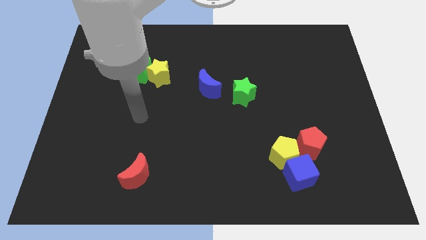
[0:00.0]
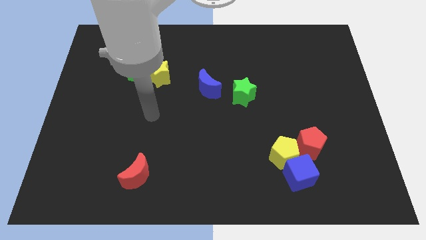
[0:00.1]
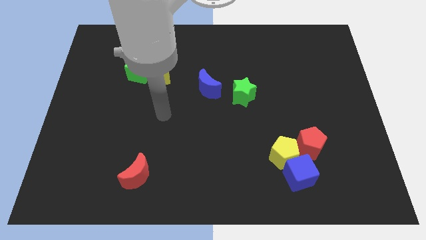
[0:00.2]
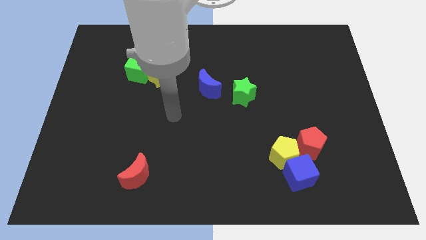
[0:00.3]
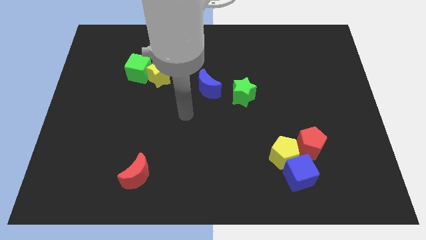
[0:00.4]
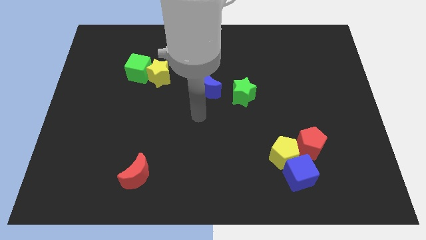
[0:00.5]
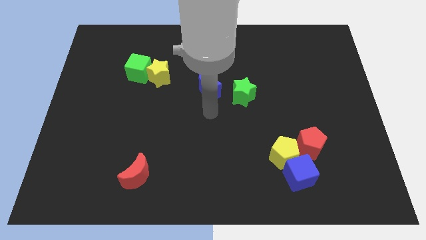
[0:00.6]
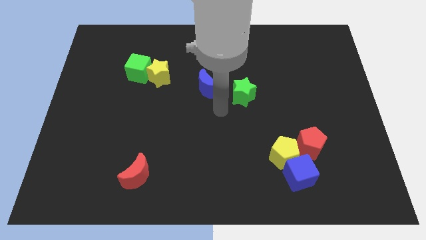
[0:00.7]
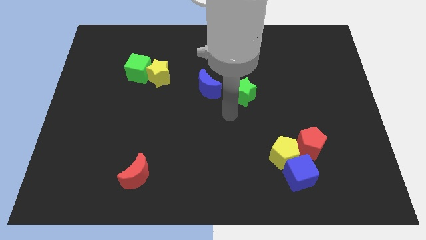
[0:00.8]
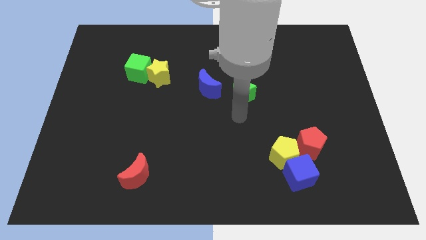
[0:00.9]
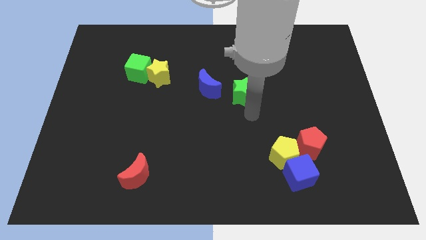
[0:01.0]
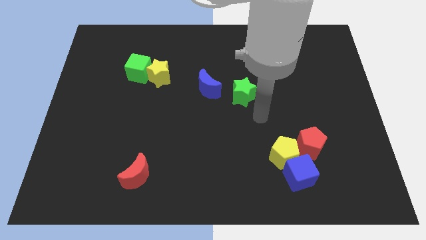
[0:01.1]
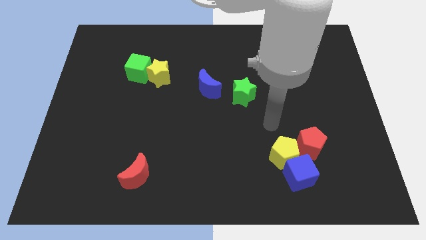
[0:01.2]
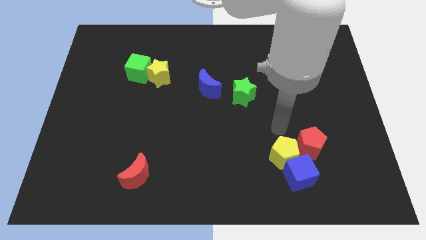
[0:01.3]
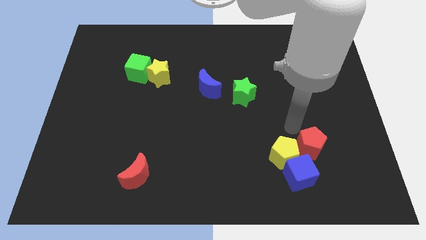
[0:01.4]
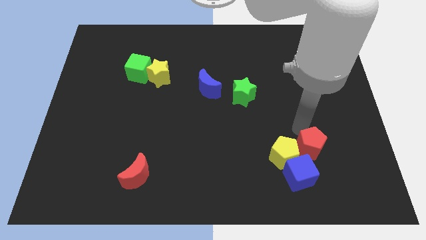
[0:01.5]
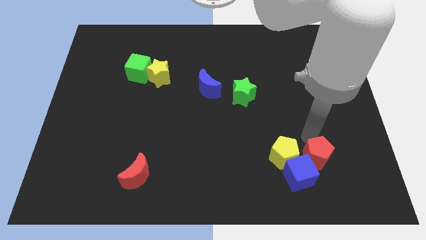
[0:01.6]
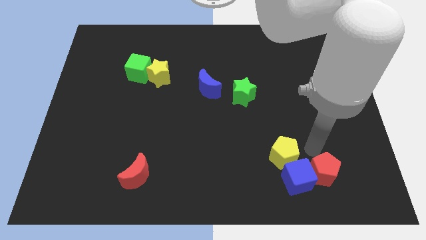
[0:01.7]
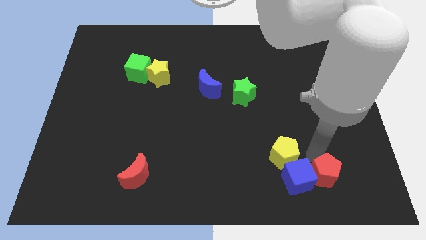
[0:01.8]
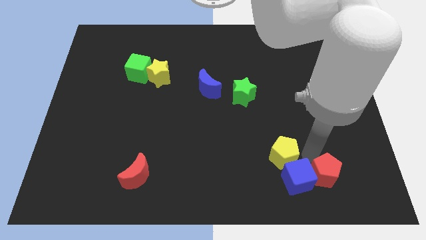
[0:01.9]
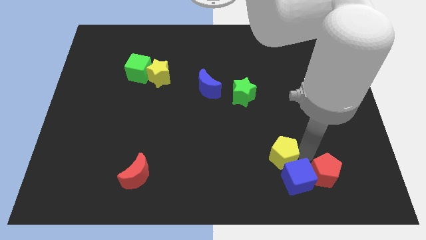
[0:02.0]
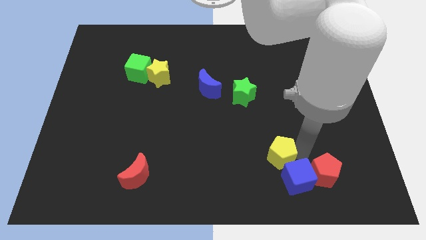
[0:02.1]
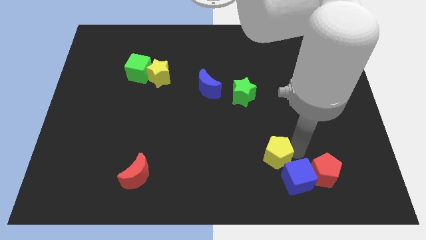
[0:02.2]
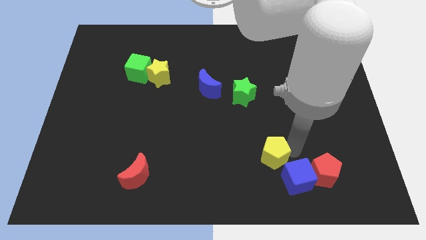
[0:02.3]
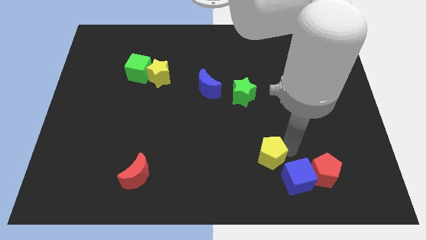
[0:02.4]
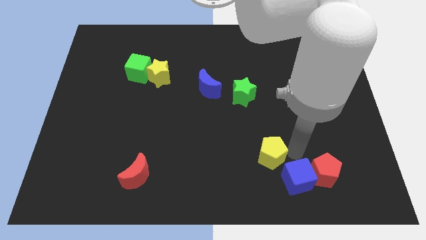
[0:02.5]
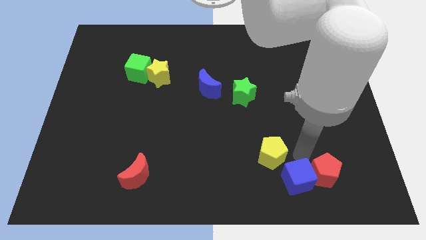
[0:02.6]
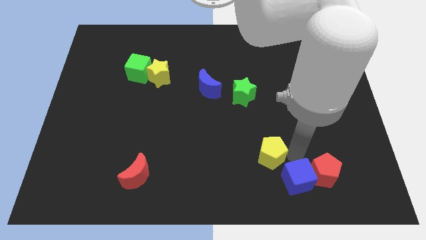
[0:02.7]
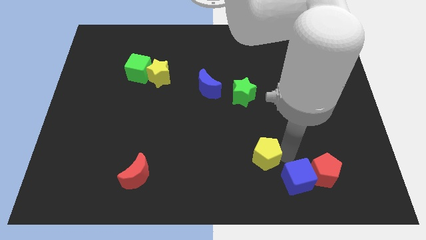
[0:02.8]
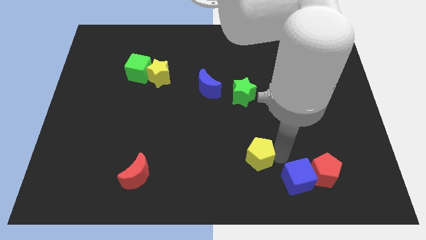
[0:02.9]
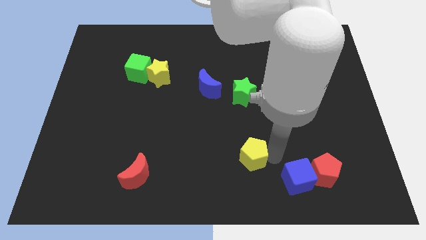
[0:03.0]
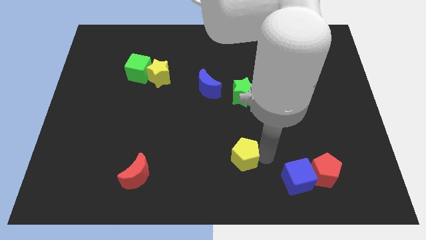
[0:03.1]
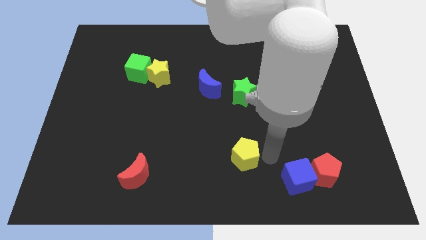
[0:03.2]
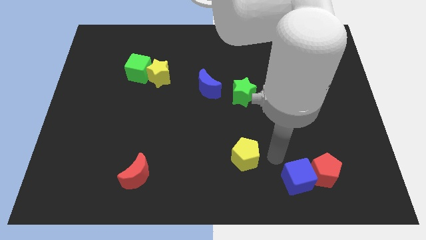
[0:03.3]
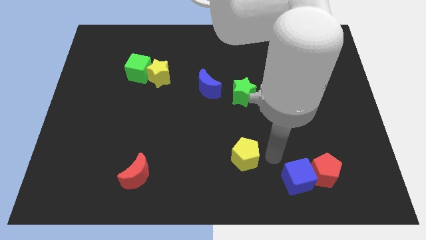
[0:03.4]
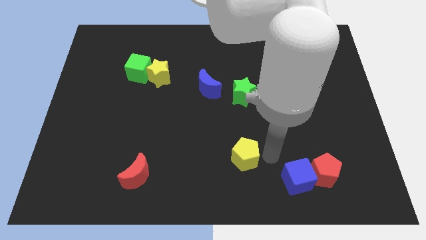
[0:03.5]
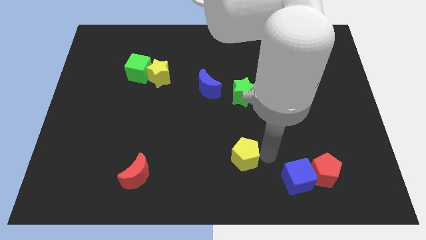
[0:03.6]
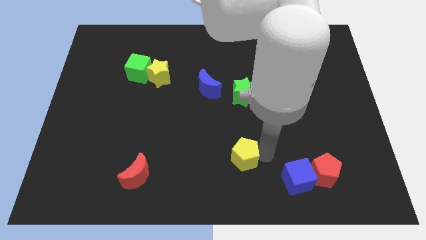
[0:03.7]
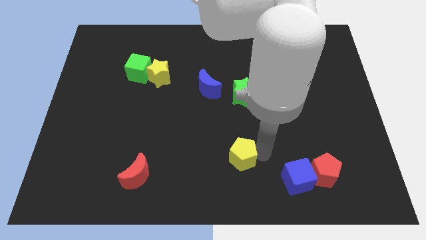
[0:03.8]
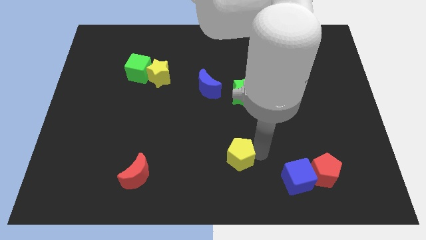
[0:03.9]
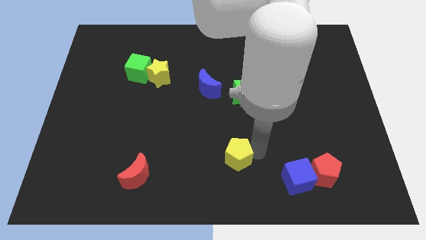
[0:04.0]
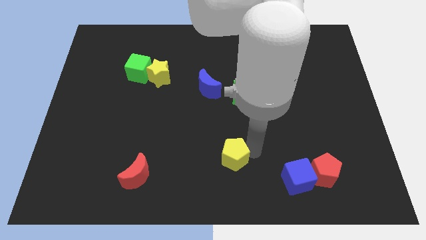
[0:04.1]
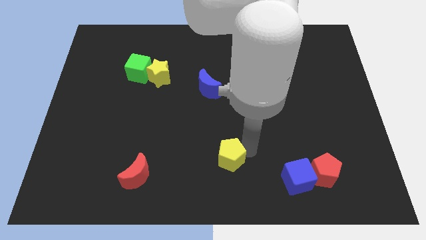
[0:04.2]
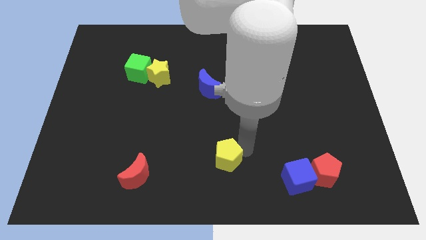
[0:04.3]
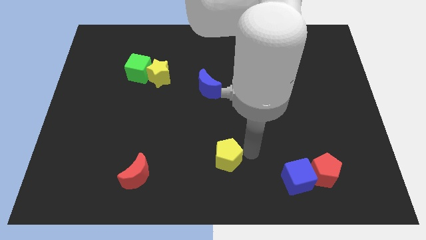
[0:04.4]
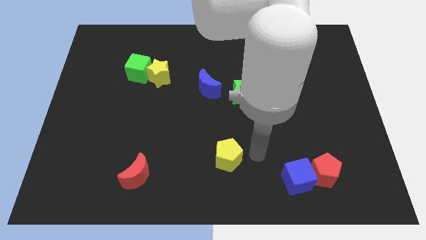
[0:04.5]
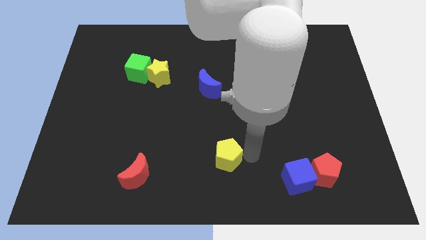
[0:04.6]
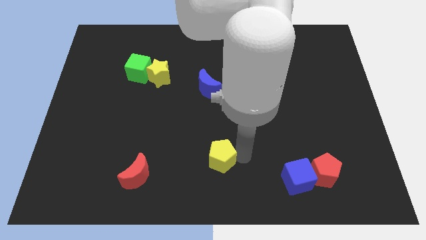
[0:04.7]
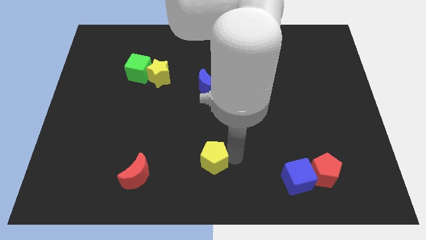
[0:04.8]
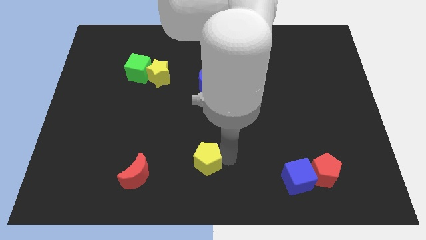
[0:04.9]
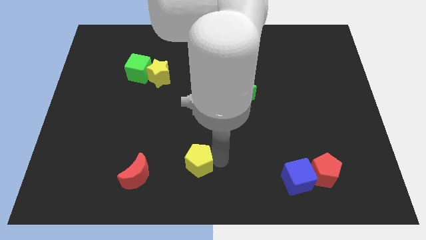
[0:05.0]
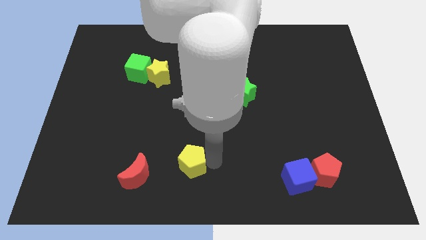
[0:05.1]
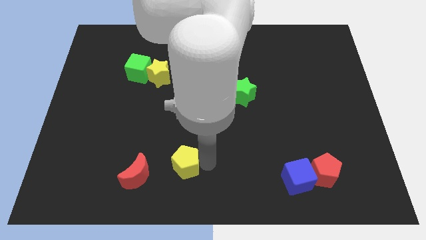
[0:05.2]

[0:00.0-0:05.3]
slide the yellow pentagon to the left

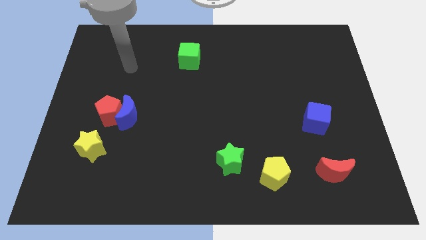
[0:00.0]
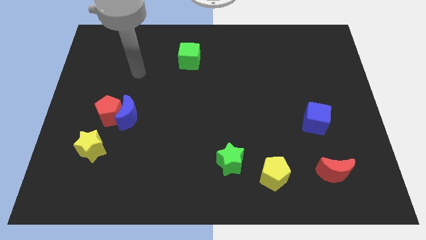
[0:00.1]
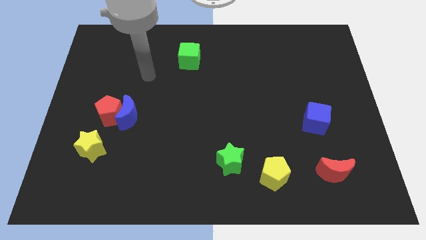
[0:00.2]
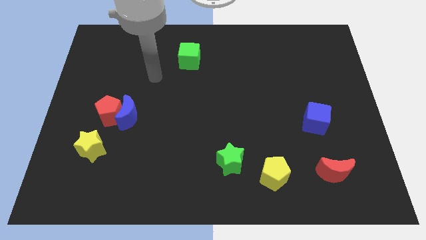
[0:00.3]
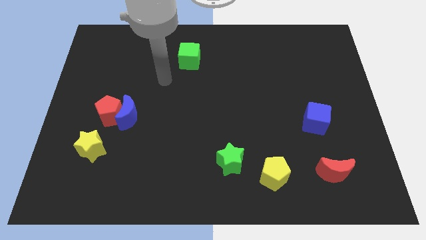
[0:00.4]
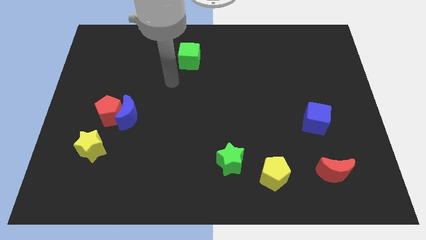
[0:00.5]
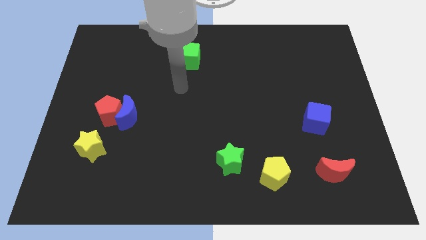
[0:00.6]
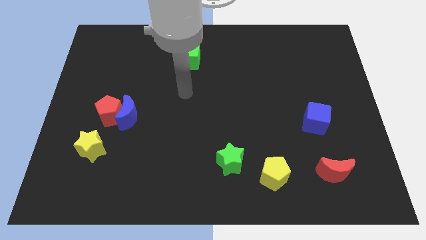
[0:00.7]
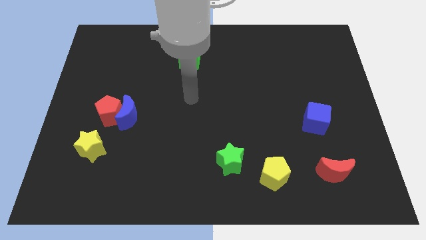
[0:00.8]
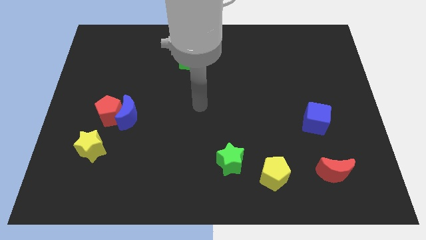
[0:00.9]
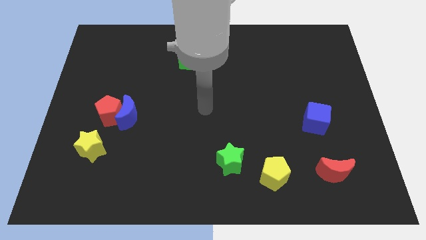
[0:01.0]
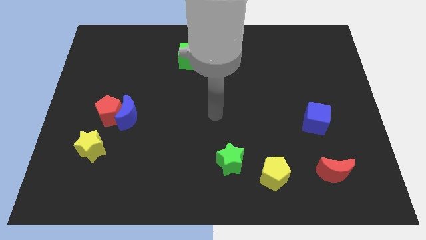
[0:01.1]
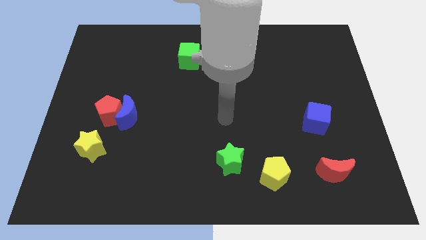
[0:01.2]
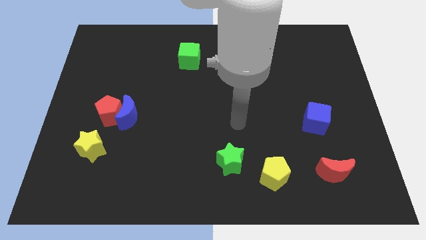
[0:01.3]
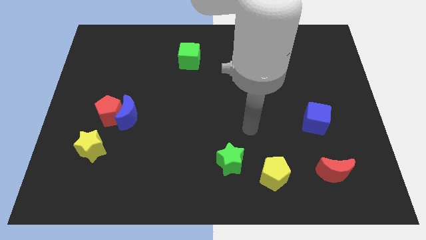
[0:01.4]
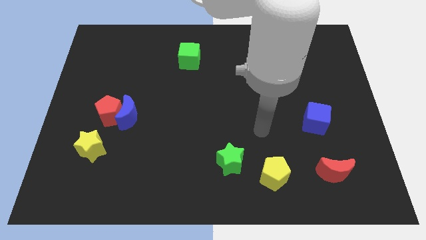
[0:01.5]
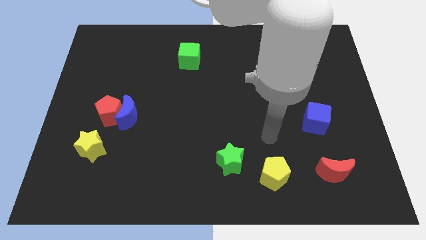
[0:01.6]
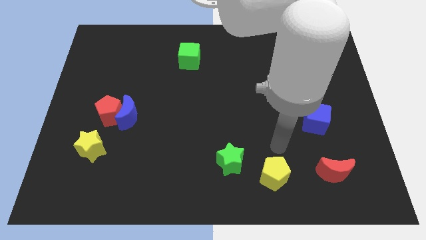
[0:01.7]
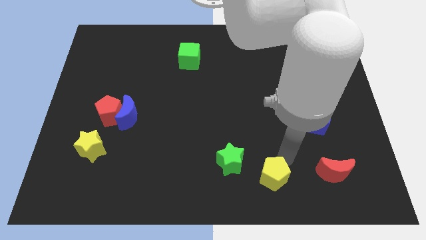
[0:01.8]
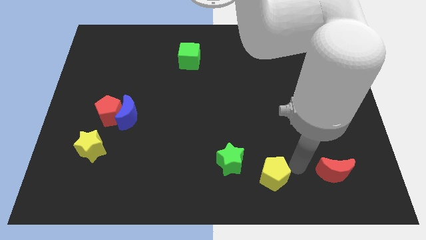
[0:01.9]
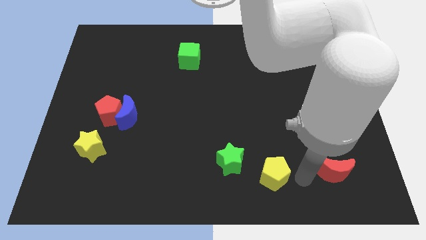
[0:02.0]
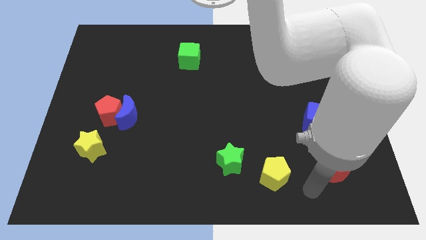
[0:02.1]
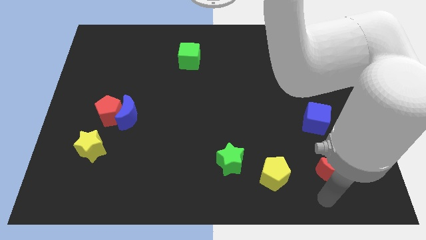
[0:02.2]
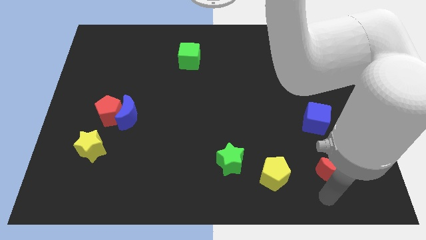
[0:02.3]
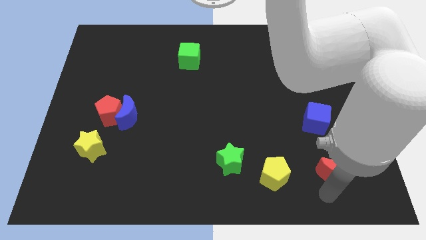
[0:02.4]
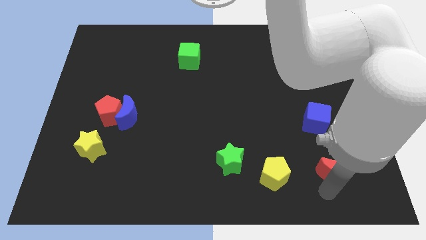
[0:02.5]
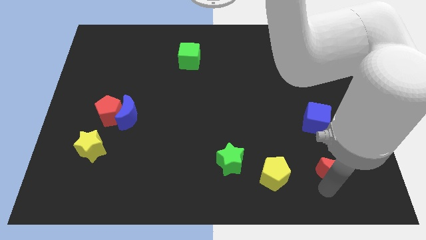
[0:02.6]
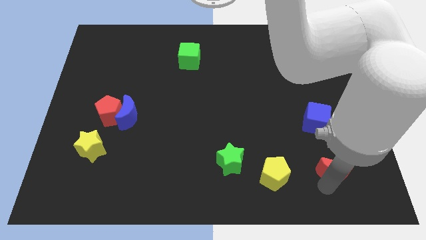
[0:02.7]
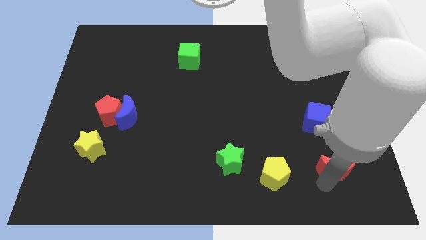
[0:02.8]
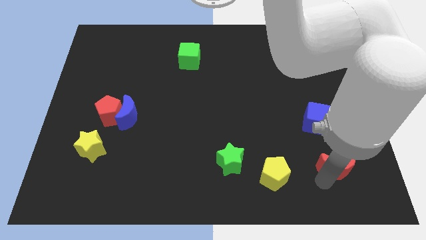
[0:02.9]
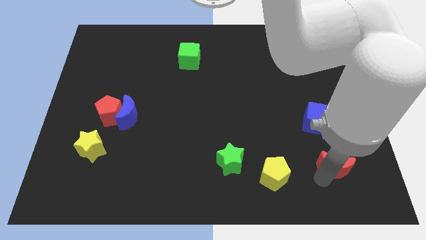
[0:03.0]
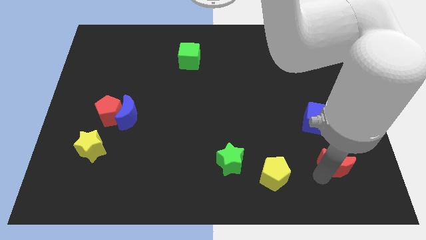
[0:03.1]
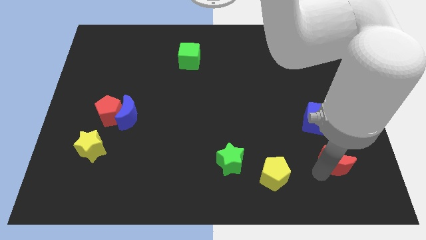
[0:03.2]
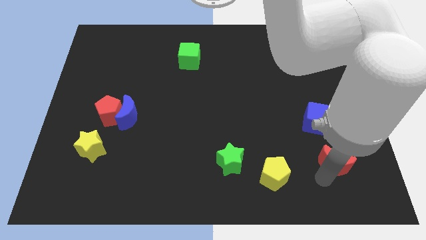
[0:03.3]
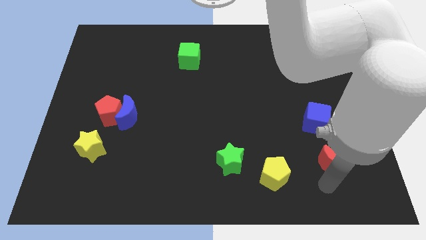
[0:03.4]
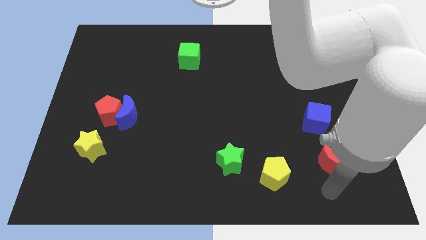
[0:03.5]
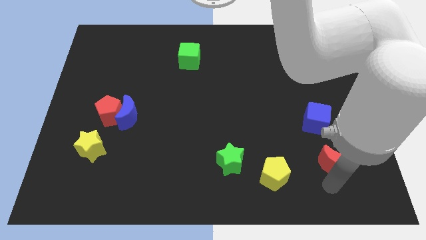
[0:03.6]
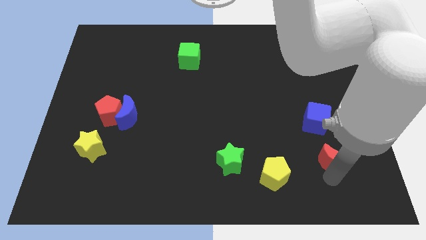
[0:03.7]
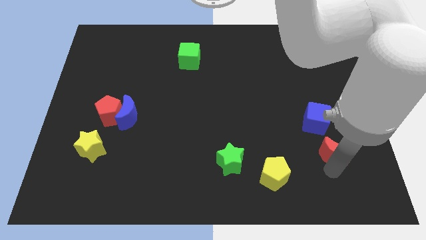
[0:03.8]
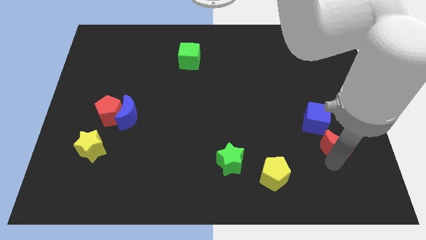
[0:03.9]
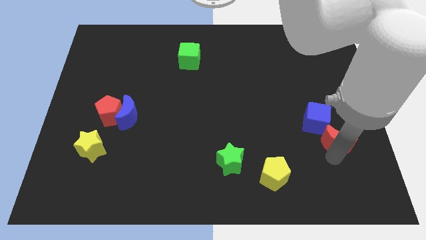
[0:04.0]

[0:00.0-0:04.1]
push the red moon up somewhat
